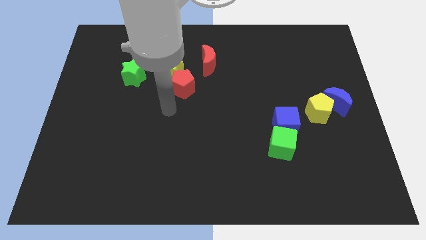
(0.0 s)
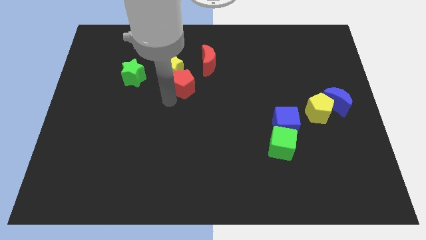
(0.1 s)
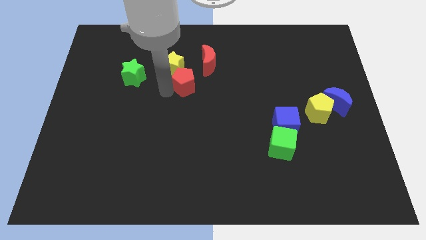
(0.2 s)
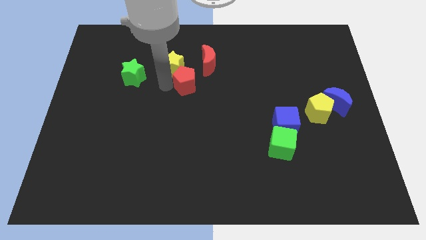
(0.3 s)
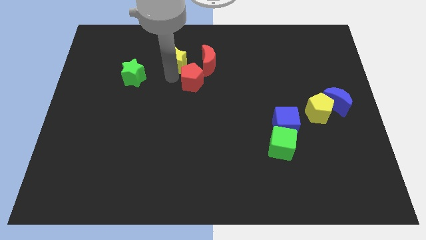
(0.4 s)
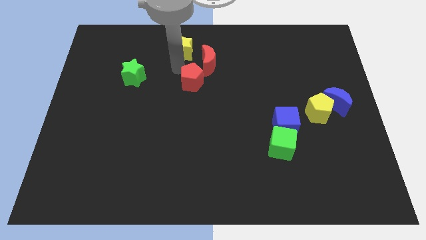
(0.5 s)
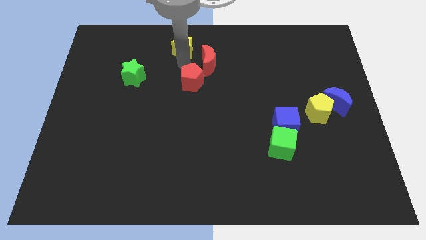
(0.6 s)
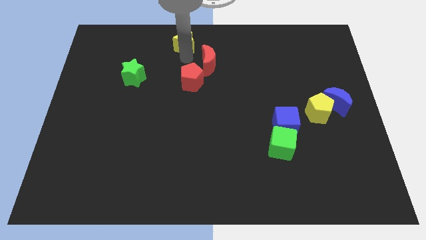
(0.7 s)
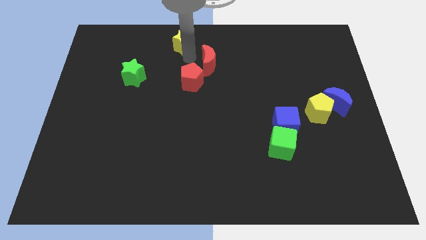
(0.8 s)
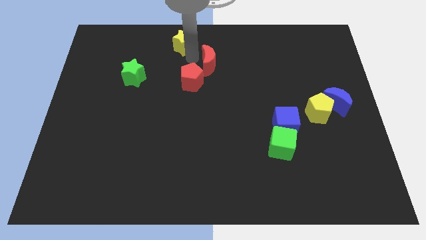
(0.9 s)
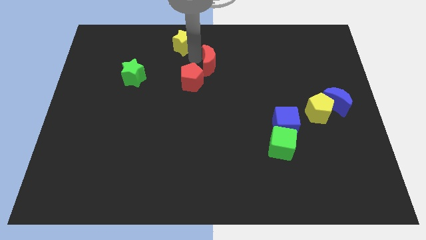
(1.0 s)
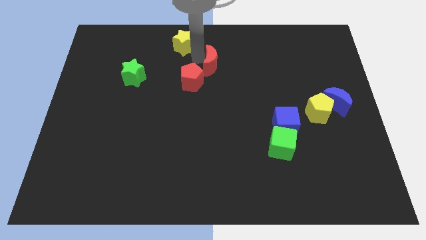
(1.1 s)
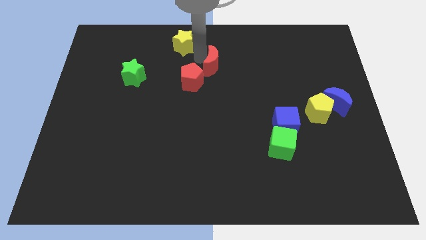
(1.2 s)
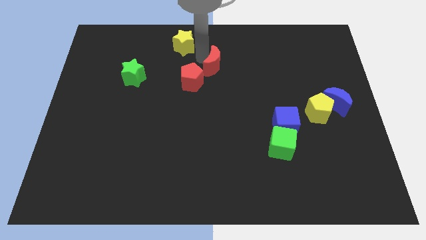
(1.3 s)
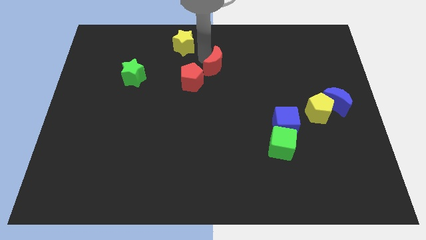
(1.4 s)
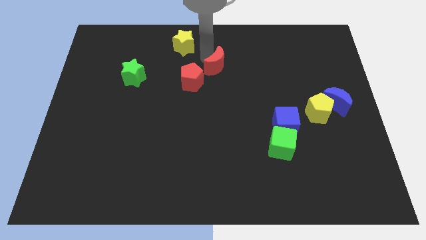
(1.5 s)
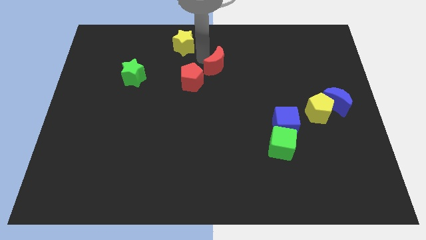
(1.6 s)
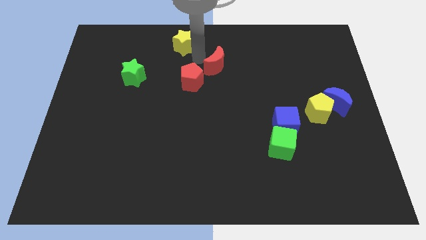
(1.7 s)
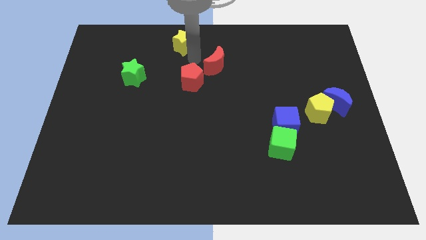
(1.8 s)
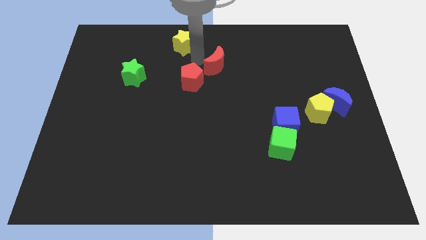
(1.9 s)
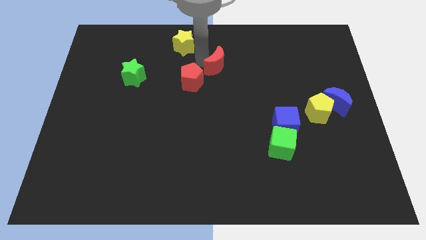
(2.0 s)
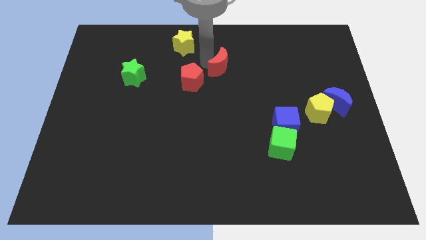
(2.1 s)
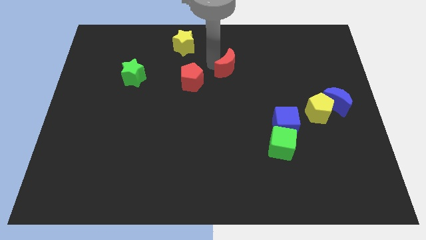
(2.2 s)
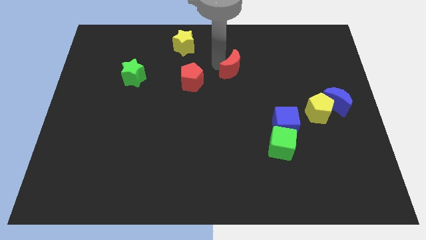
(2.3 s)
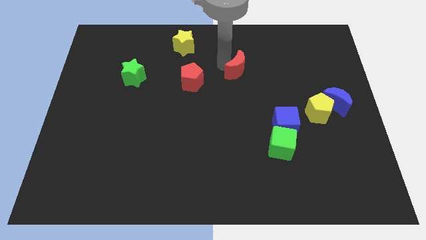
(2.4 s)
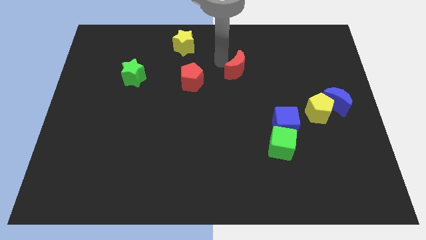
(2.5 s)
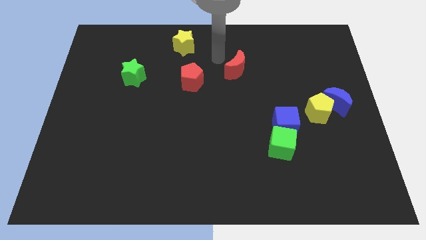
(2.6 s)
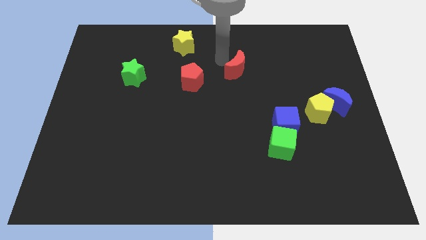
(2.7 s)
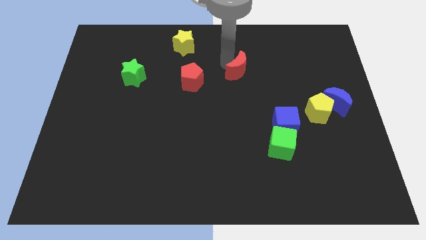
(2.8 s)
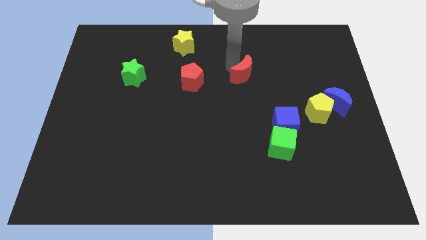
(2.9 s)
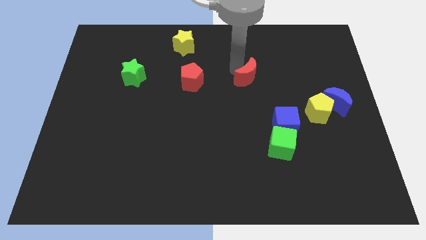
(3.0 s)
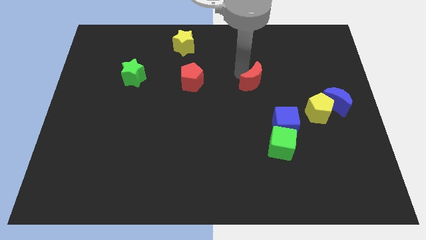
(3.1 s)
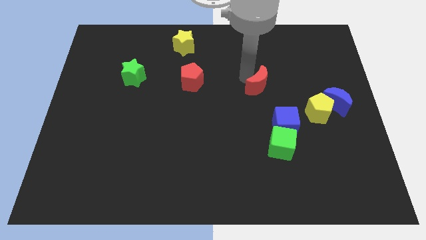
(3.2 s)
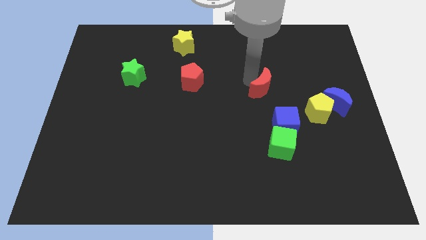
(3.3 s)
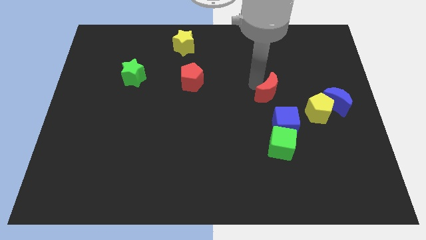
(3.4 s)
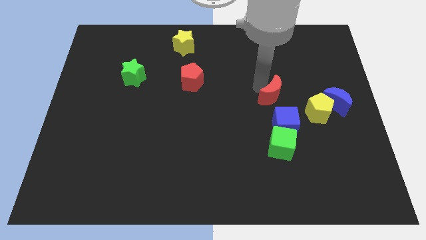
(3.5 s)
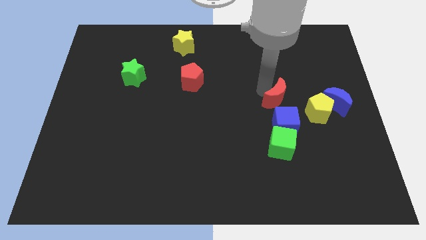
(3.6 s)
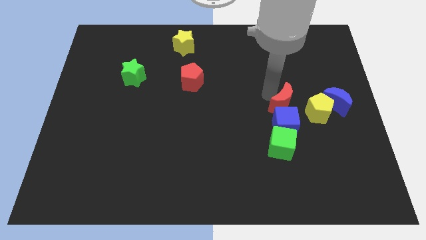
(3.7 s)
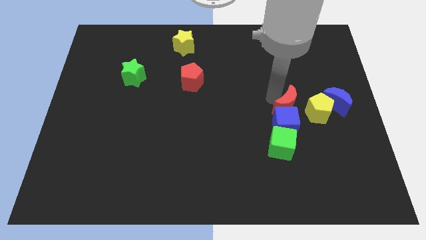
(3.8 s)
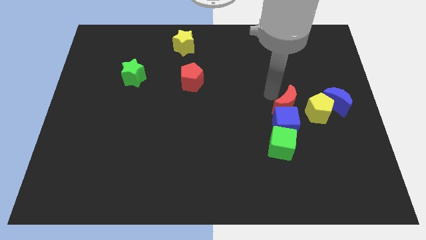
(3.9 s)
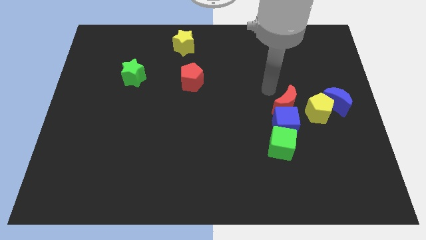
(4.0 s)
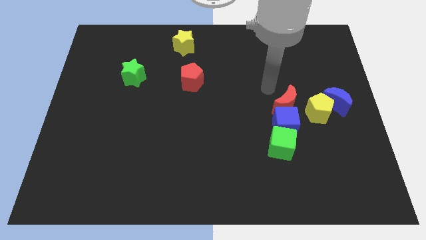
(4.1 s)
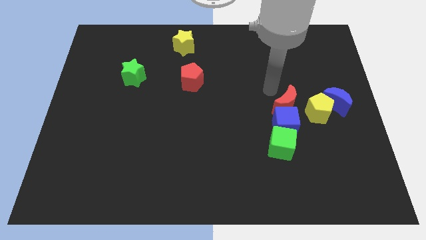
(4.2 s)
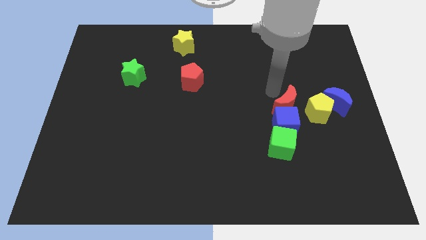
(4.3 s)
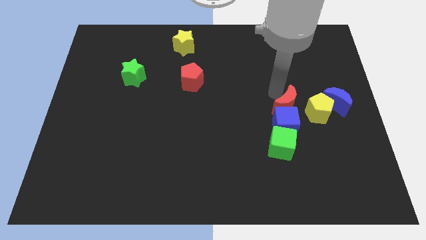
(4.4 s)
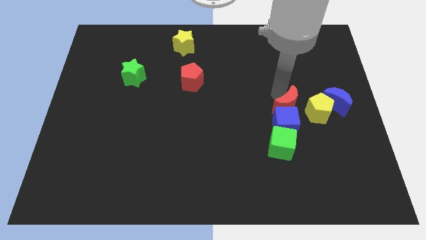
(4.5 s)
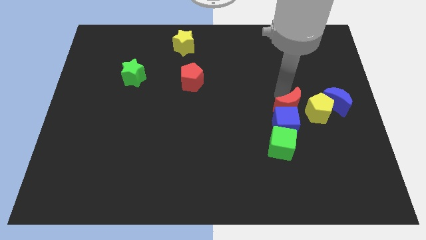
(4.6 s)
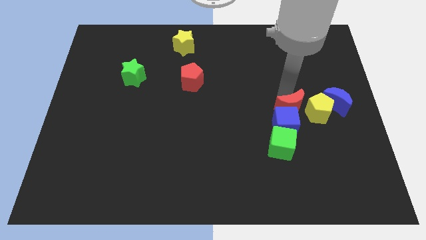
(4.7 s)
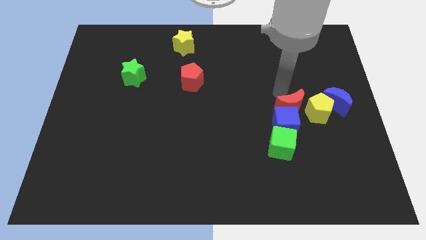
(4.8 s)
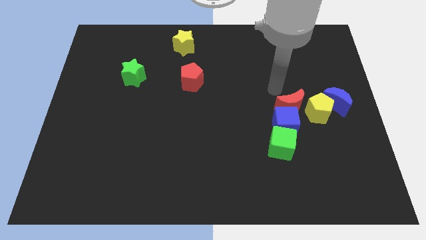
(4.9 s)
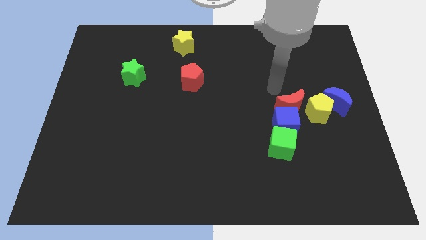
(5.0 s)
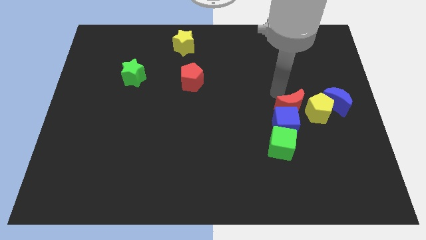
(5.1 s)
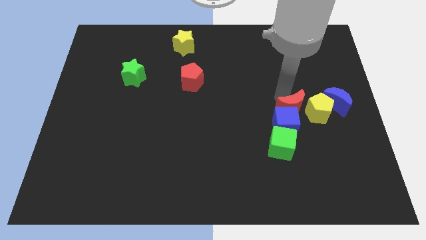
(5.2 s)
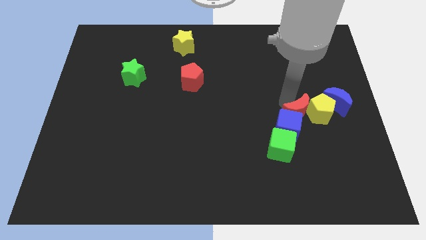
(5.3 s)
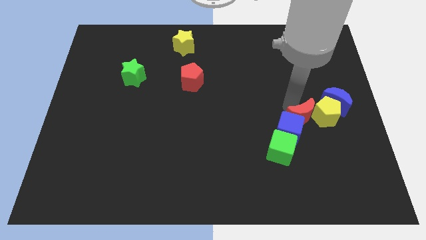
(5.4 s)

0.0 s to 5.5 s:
move the red moon right of the blue cube
